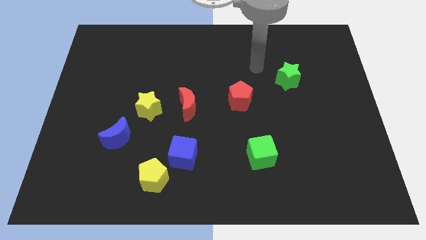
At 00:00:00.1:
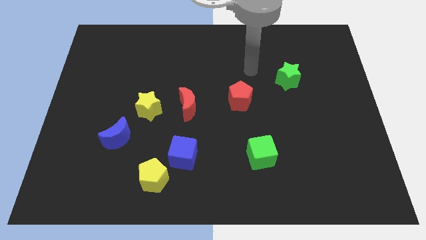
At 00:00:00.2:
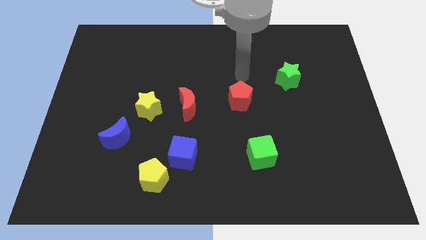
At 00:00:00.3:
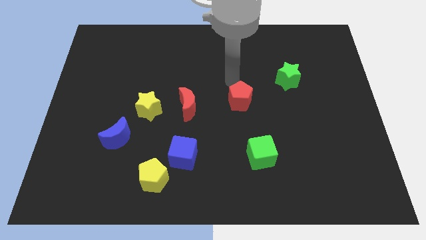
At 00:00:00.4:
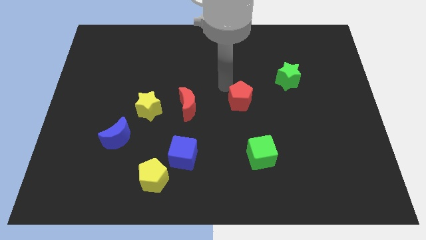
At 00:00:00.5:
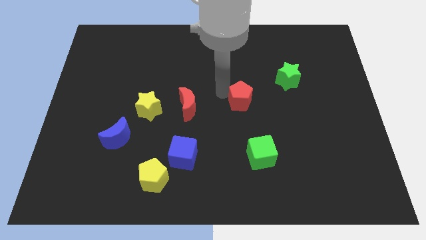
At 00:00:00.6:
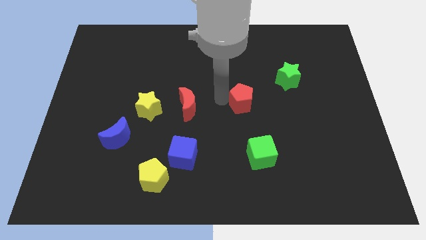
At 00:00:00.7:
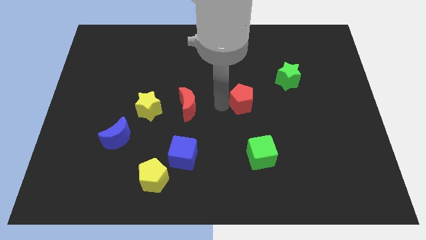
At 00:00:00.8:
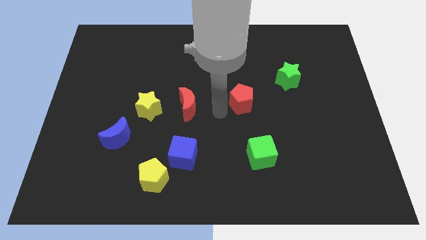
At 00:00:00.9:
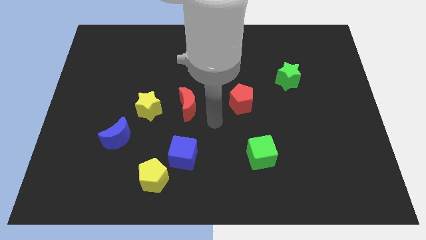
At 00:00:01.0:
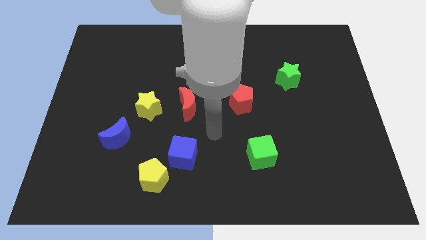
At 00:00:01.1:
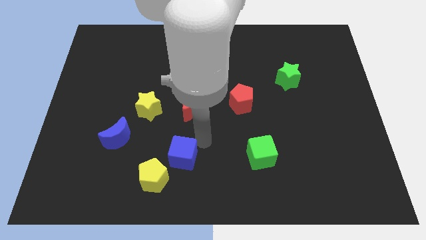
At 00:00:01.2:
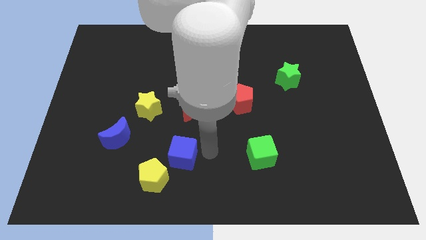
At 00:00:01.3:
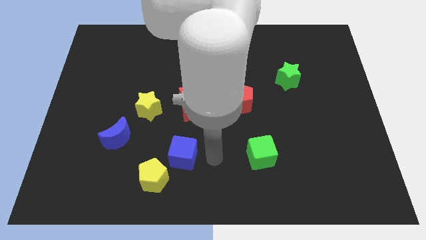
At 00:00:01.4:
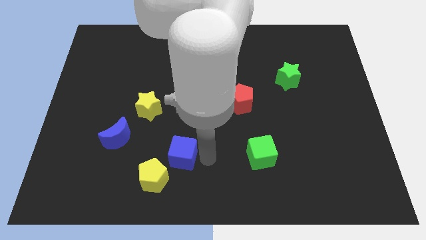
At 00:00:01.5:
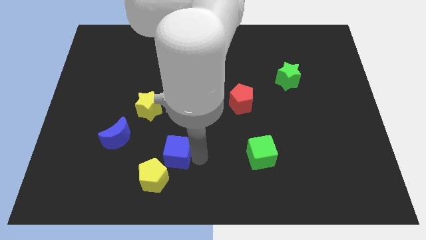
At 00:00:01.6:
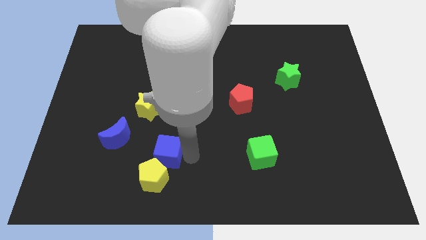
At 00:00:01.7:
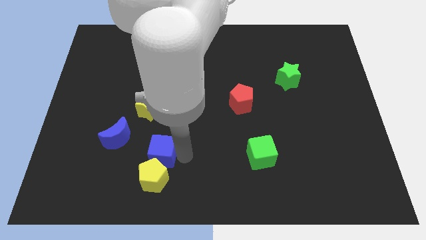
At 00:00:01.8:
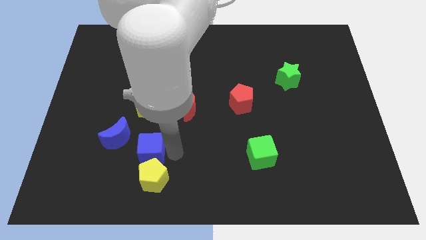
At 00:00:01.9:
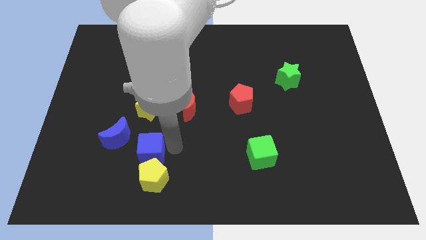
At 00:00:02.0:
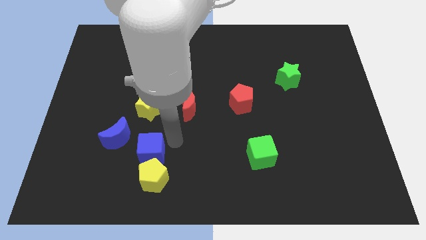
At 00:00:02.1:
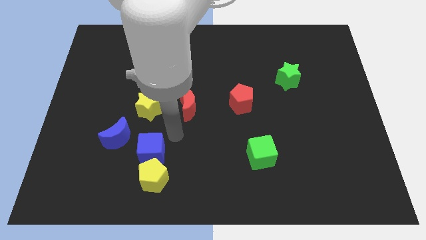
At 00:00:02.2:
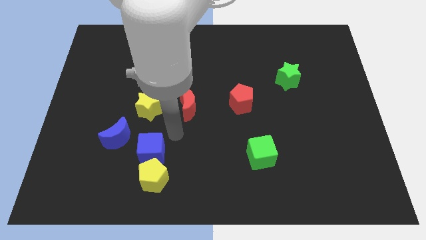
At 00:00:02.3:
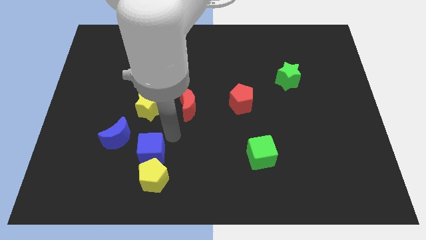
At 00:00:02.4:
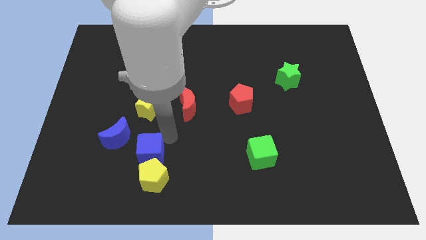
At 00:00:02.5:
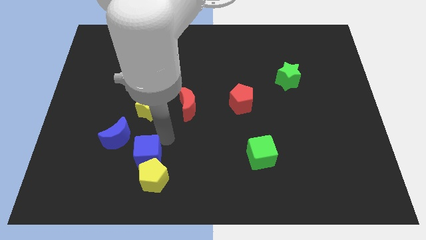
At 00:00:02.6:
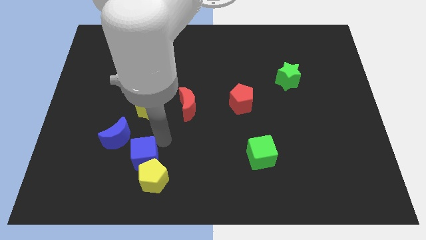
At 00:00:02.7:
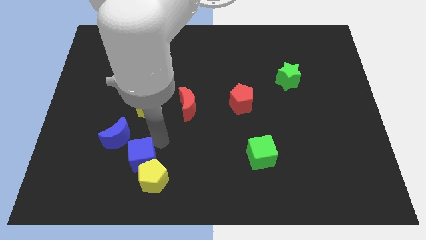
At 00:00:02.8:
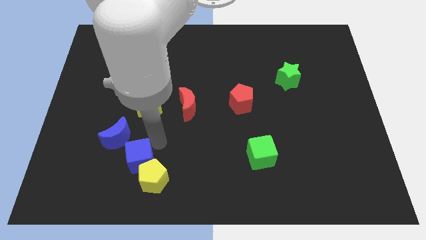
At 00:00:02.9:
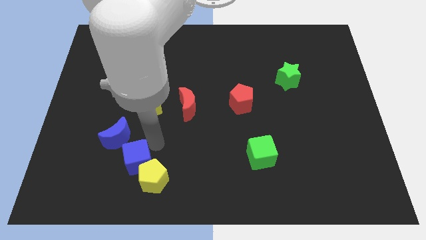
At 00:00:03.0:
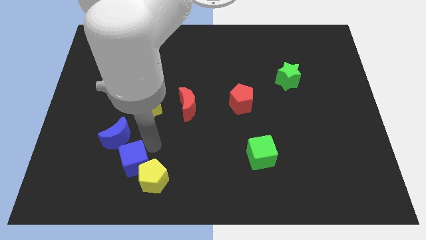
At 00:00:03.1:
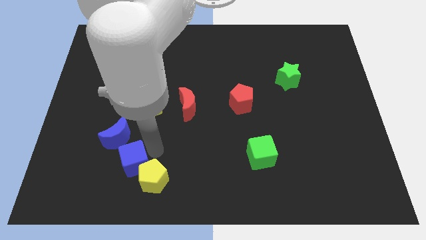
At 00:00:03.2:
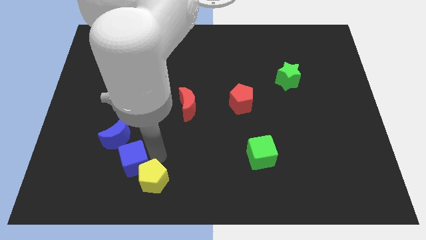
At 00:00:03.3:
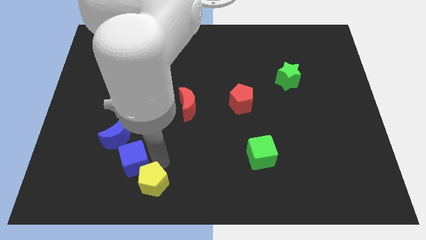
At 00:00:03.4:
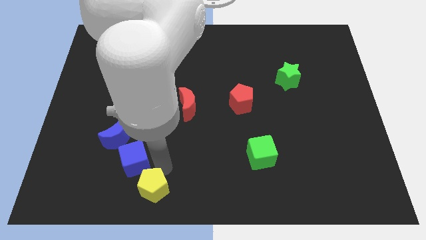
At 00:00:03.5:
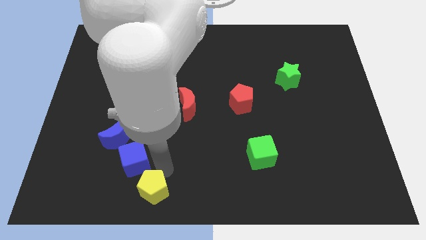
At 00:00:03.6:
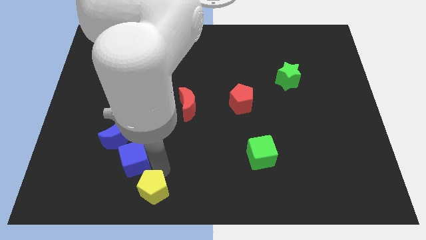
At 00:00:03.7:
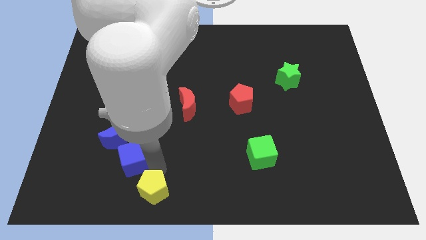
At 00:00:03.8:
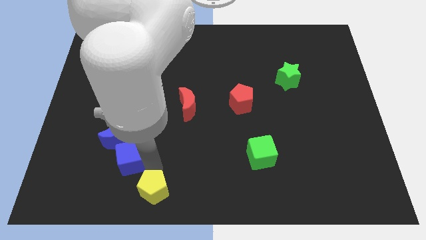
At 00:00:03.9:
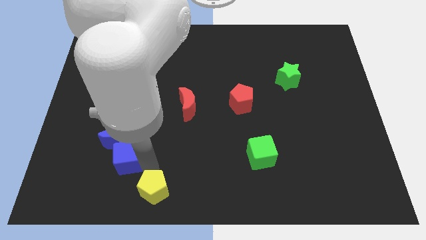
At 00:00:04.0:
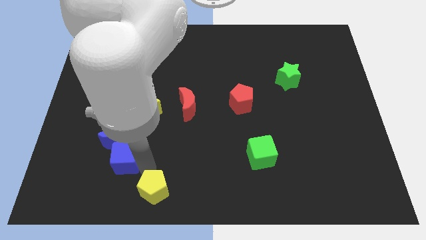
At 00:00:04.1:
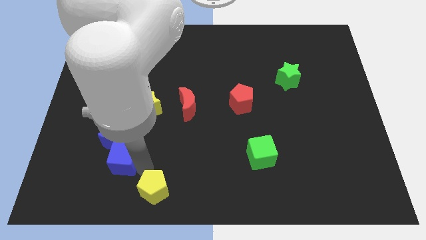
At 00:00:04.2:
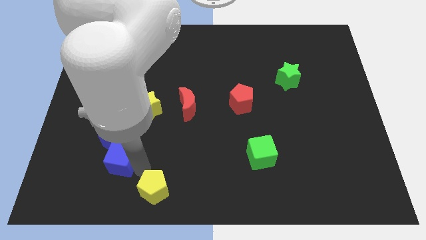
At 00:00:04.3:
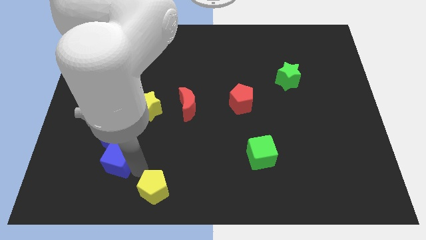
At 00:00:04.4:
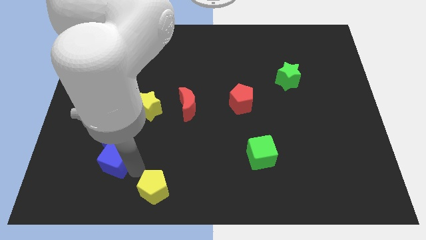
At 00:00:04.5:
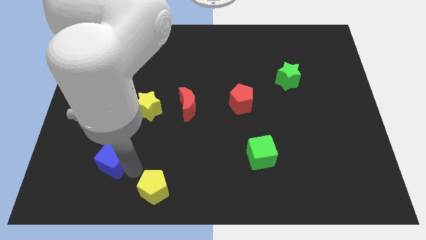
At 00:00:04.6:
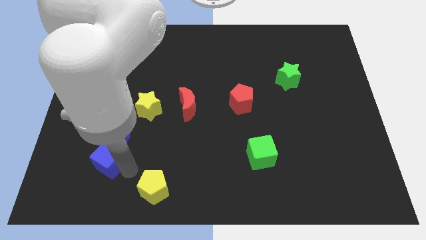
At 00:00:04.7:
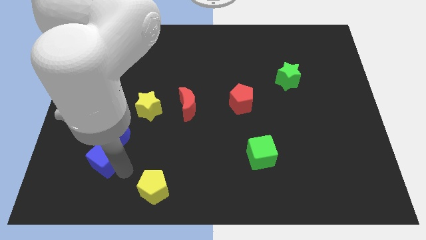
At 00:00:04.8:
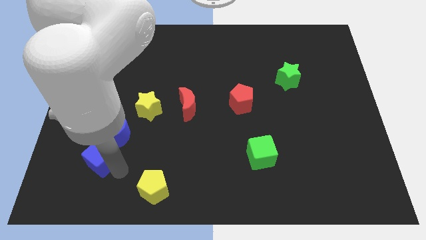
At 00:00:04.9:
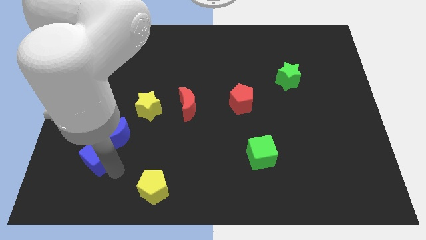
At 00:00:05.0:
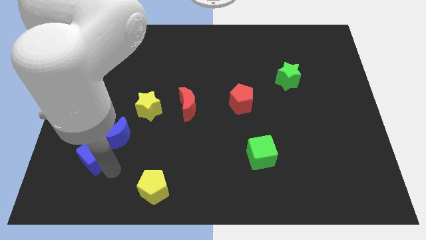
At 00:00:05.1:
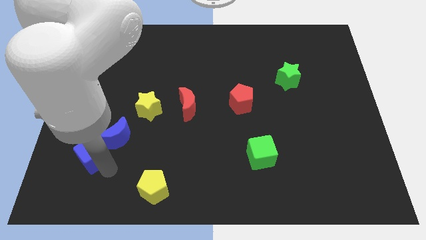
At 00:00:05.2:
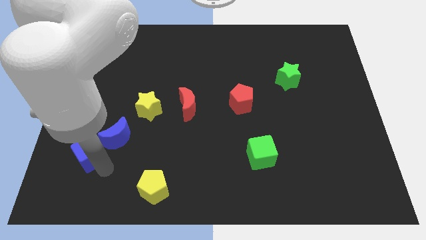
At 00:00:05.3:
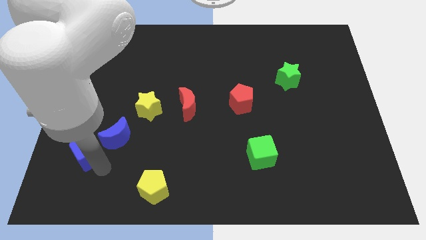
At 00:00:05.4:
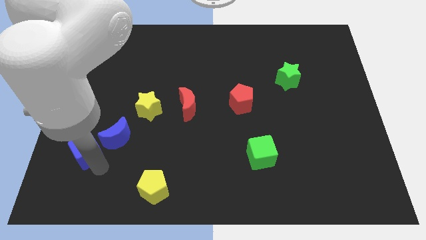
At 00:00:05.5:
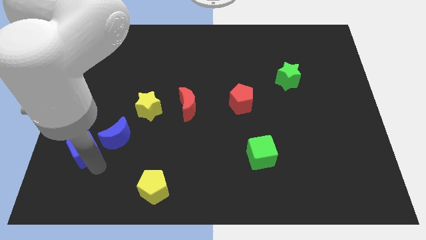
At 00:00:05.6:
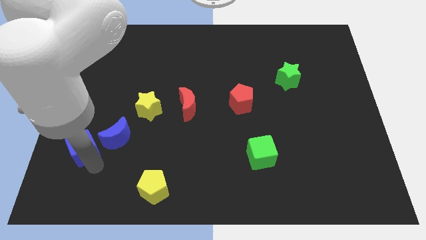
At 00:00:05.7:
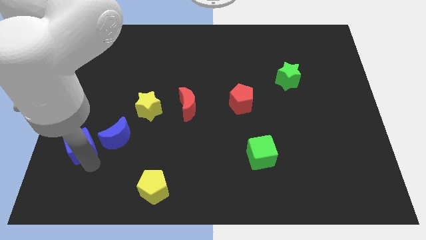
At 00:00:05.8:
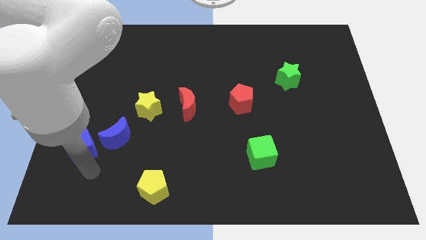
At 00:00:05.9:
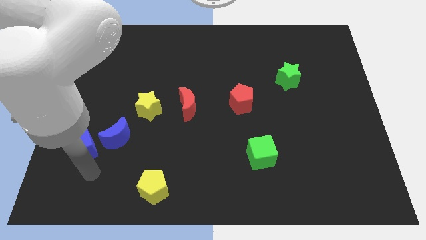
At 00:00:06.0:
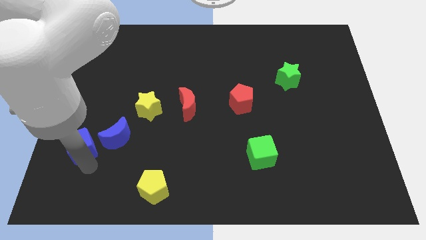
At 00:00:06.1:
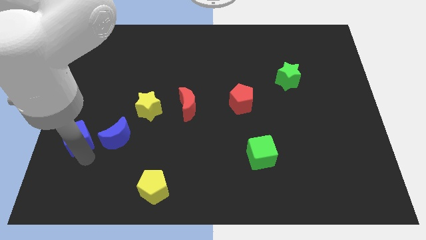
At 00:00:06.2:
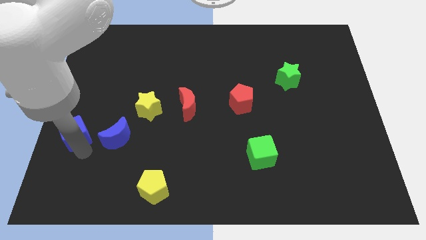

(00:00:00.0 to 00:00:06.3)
put the blue cube to the left side of the board
